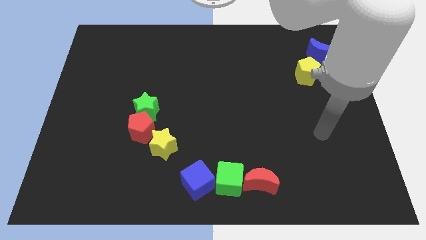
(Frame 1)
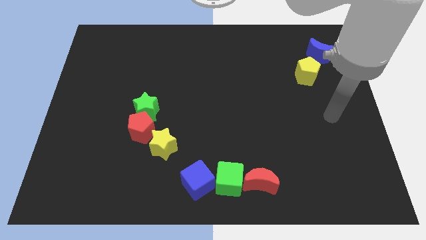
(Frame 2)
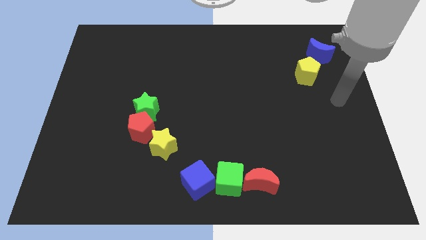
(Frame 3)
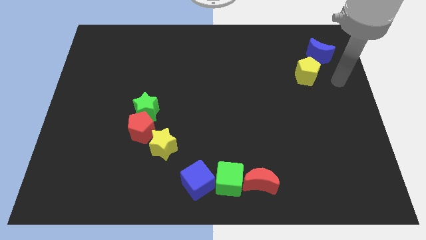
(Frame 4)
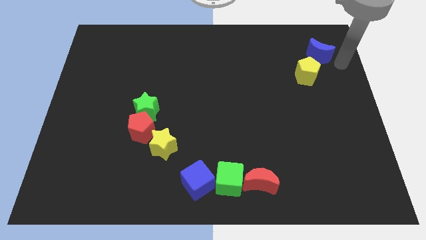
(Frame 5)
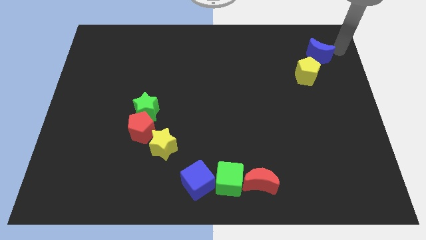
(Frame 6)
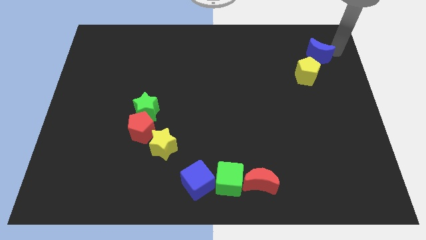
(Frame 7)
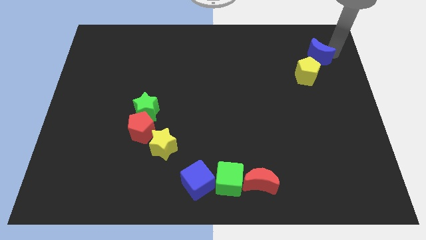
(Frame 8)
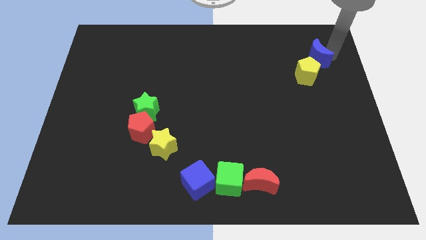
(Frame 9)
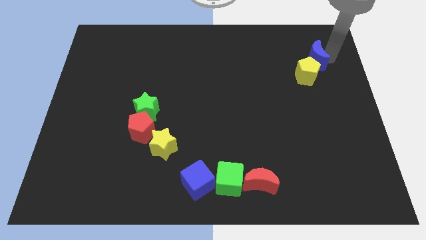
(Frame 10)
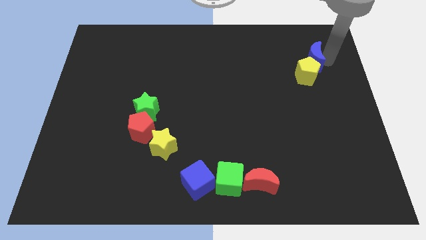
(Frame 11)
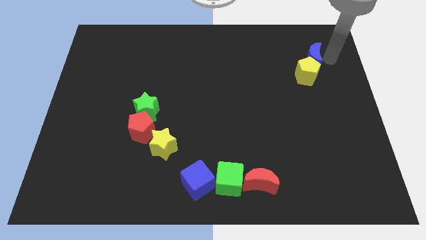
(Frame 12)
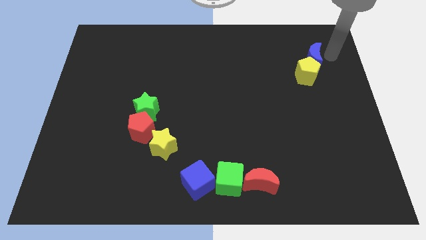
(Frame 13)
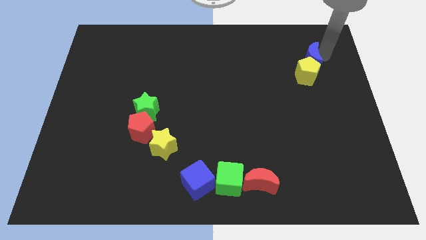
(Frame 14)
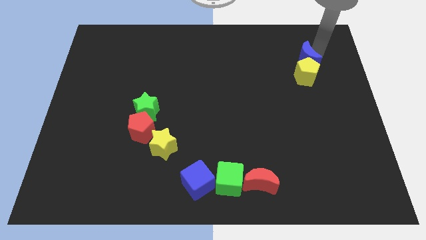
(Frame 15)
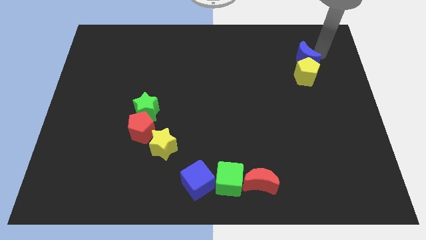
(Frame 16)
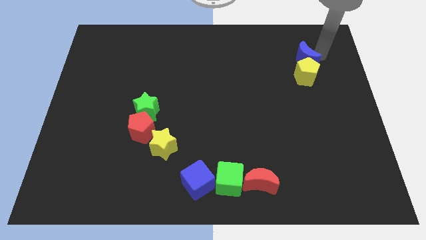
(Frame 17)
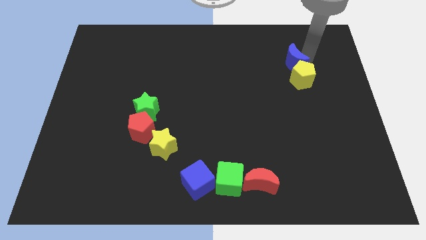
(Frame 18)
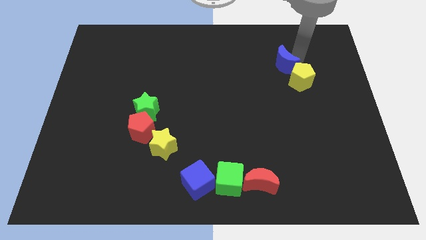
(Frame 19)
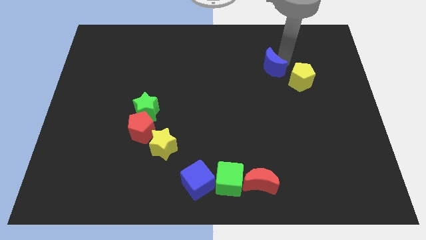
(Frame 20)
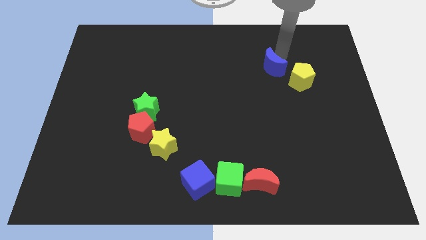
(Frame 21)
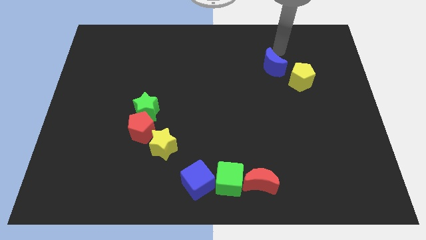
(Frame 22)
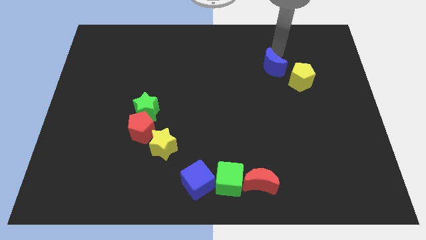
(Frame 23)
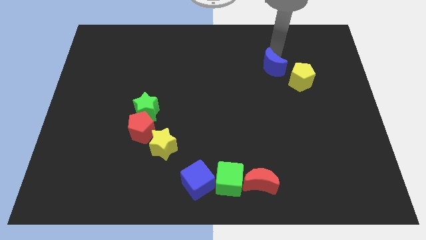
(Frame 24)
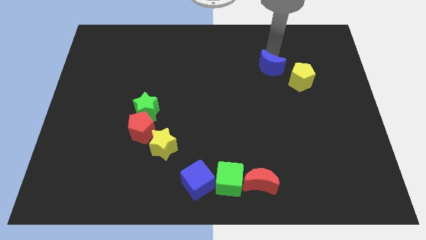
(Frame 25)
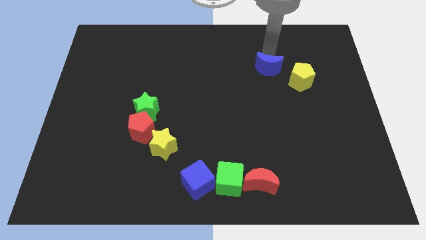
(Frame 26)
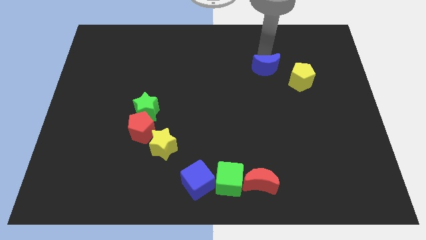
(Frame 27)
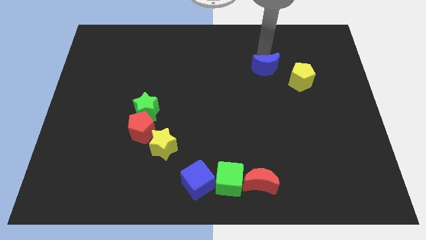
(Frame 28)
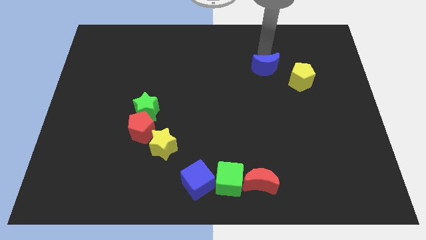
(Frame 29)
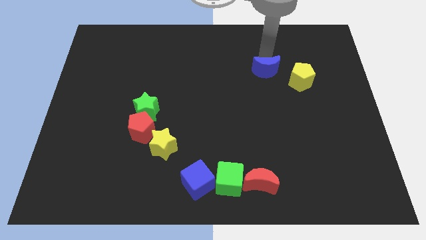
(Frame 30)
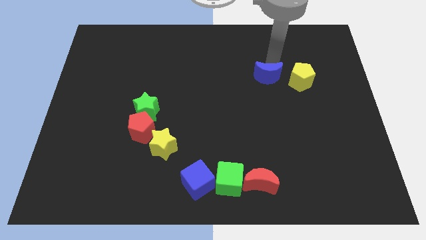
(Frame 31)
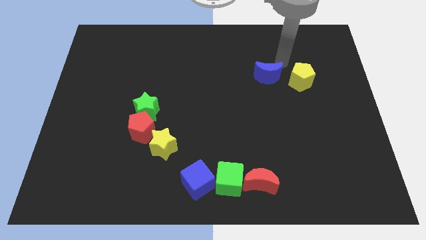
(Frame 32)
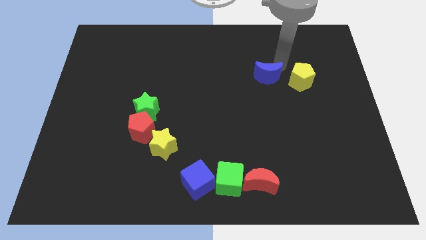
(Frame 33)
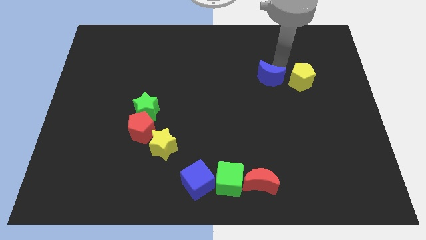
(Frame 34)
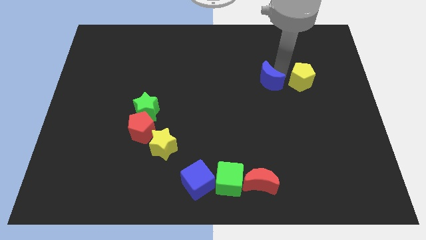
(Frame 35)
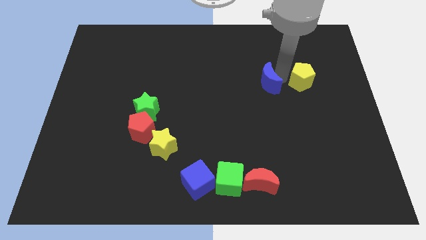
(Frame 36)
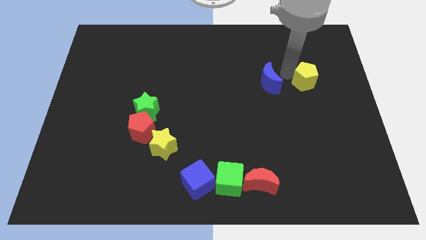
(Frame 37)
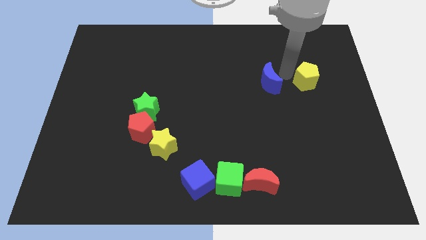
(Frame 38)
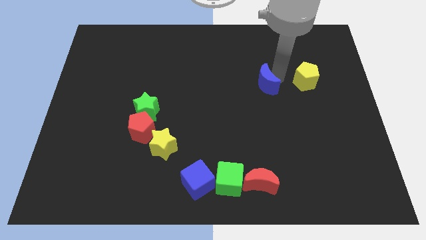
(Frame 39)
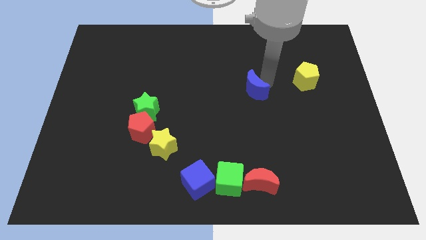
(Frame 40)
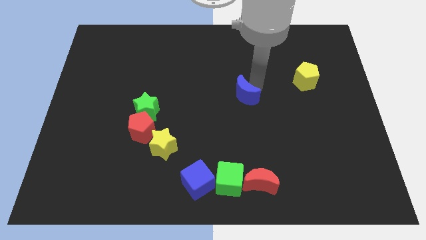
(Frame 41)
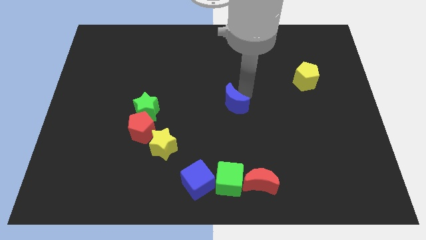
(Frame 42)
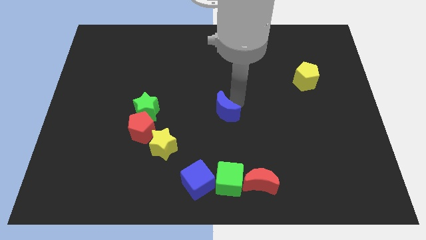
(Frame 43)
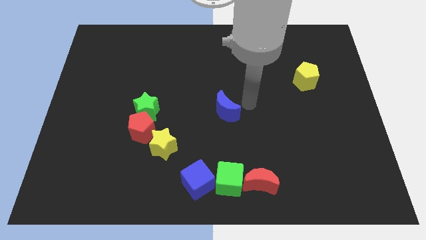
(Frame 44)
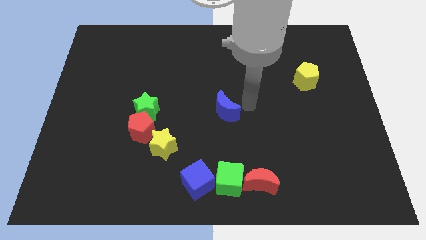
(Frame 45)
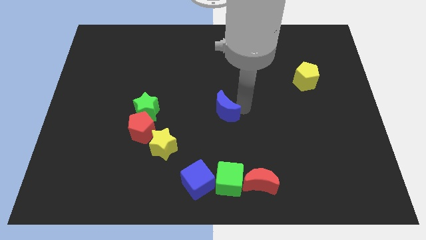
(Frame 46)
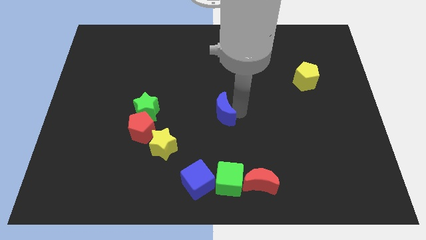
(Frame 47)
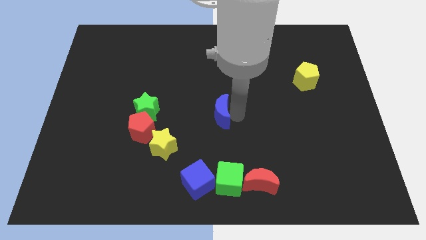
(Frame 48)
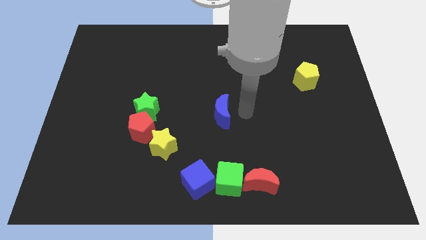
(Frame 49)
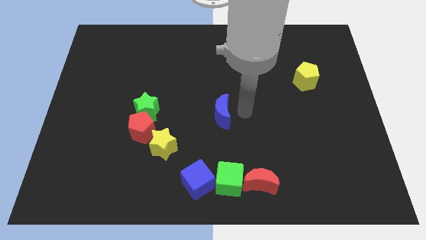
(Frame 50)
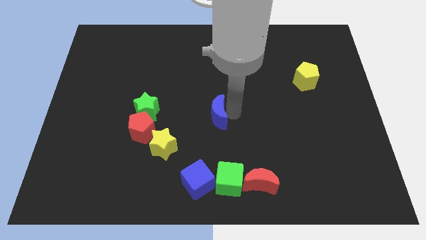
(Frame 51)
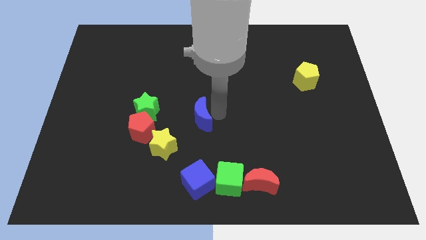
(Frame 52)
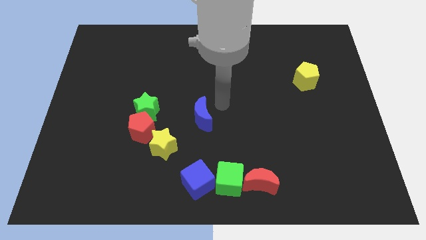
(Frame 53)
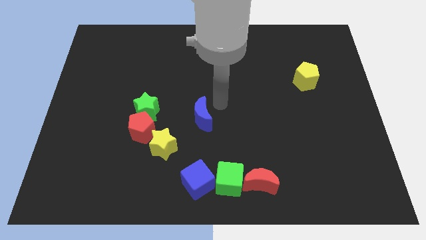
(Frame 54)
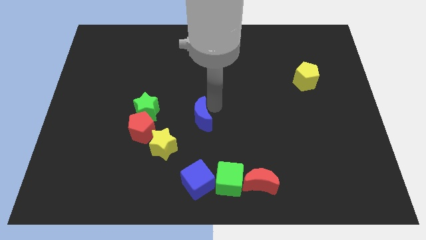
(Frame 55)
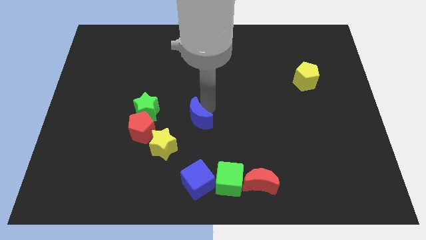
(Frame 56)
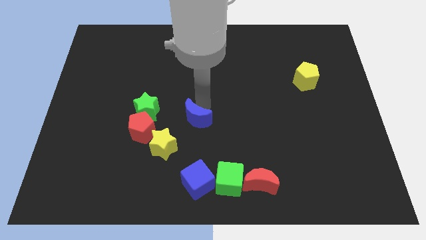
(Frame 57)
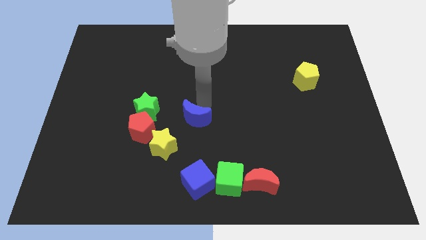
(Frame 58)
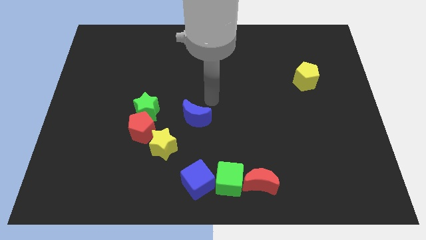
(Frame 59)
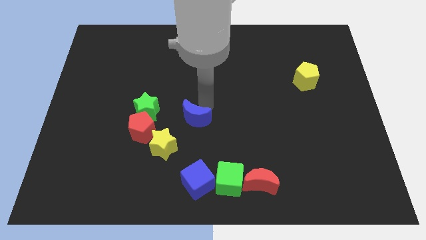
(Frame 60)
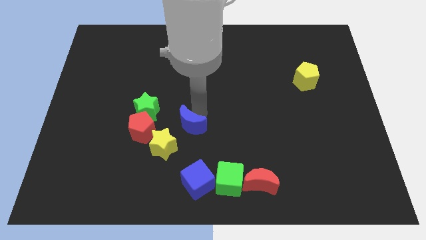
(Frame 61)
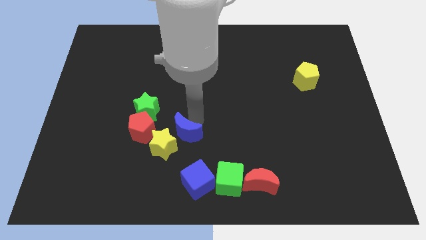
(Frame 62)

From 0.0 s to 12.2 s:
slide the blue moon next to the yellow star

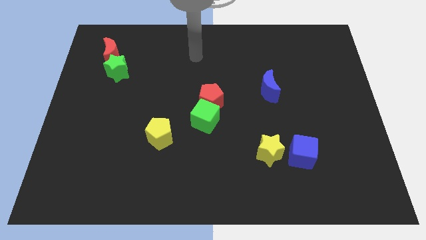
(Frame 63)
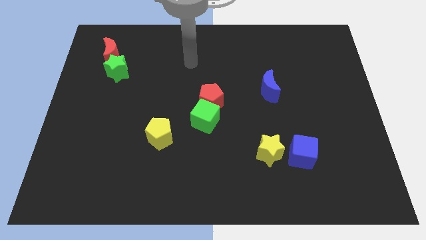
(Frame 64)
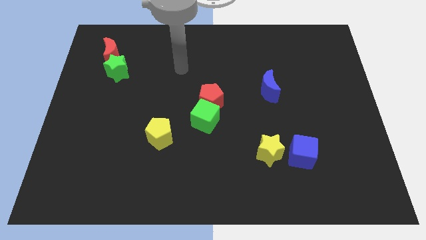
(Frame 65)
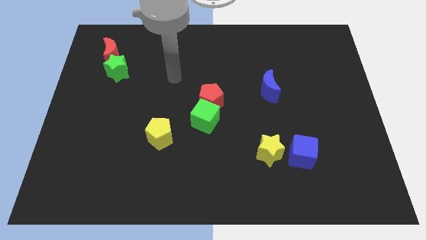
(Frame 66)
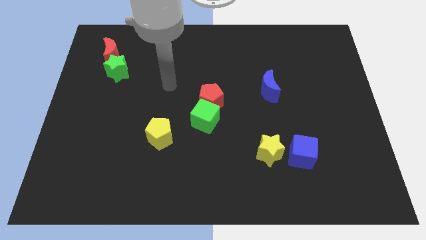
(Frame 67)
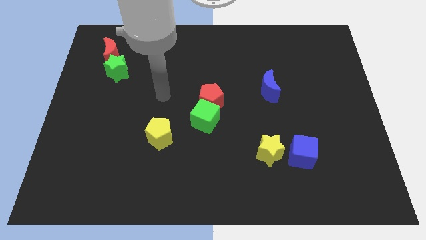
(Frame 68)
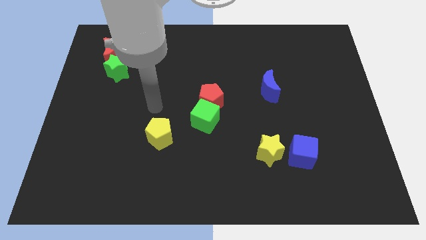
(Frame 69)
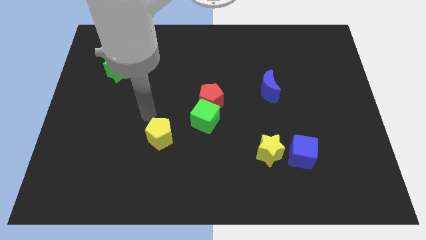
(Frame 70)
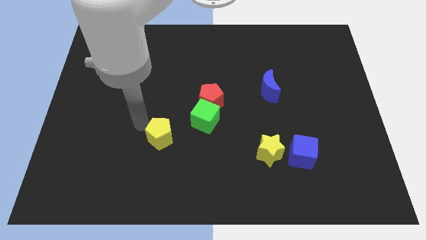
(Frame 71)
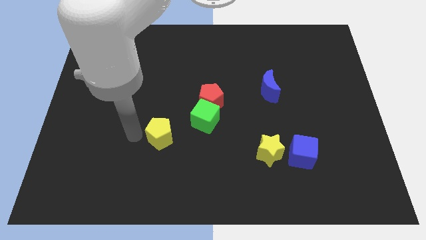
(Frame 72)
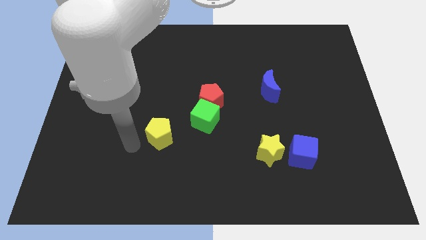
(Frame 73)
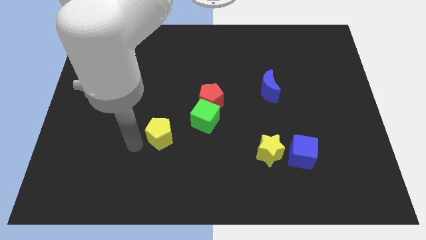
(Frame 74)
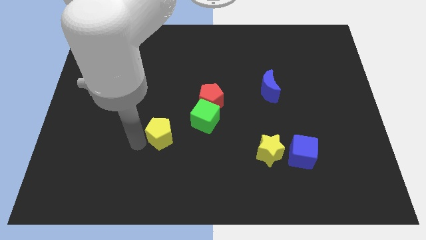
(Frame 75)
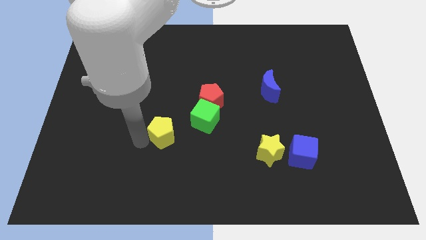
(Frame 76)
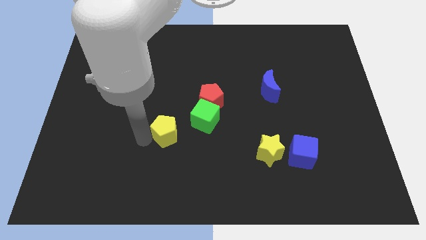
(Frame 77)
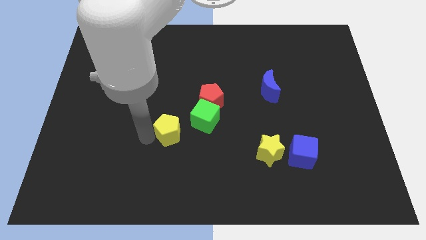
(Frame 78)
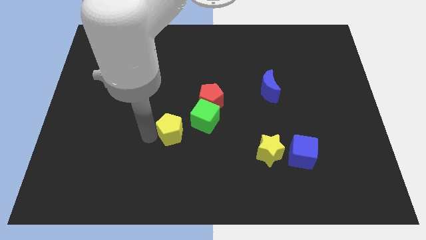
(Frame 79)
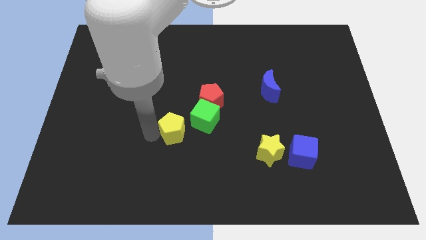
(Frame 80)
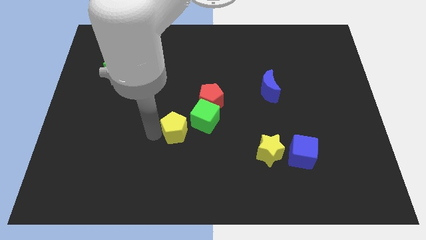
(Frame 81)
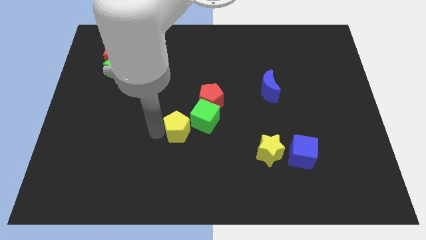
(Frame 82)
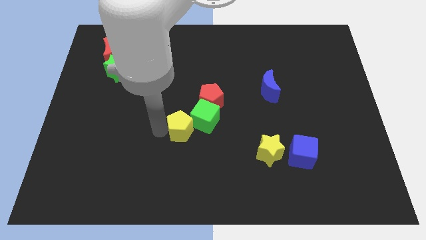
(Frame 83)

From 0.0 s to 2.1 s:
push the yellow pentagon close to the green cube
